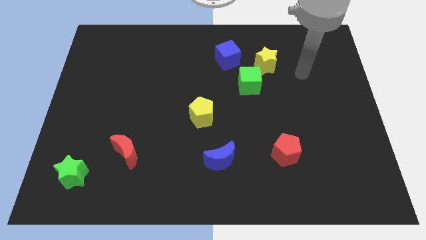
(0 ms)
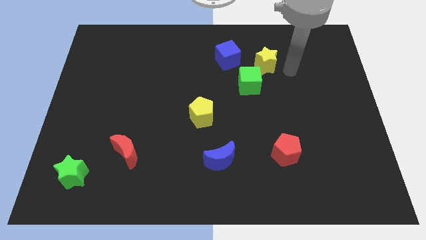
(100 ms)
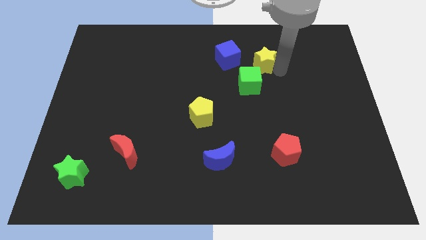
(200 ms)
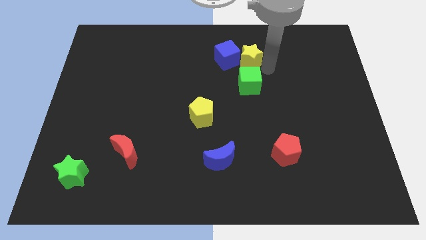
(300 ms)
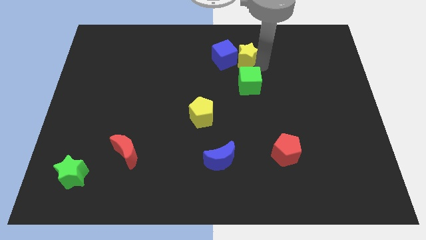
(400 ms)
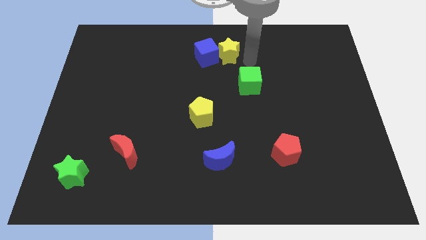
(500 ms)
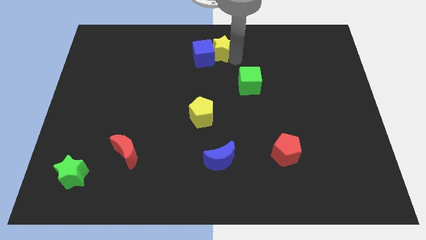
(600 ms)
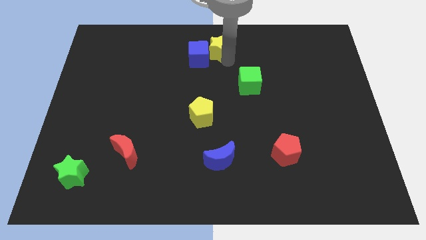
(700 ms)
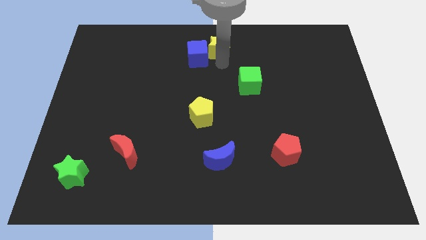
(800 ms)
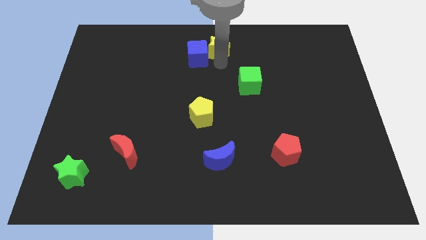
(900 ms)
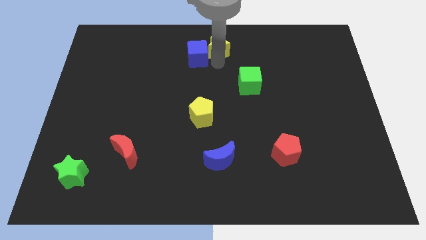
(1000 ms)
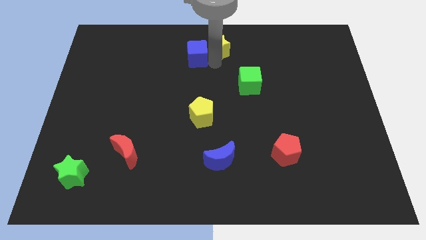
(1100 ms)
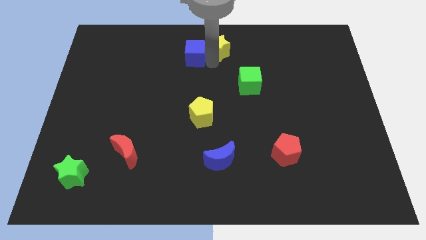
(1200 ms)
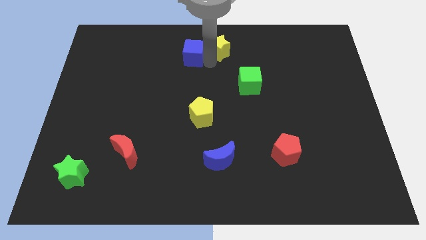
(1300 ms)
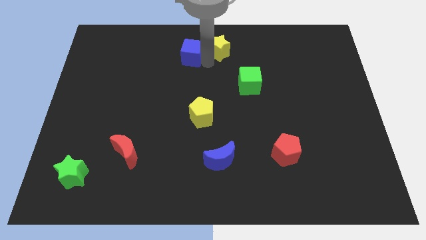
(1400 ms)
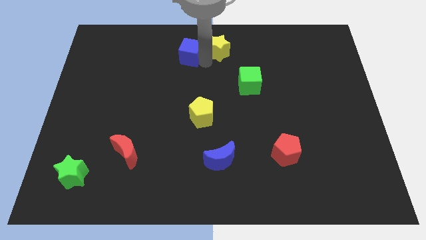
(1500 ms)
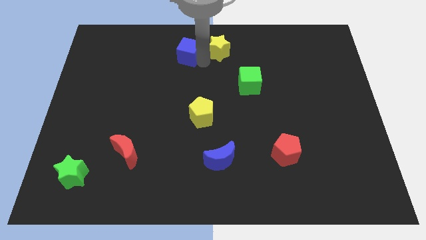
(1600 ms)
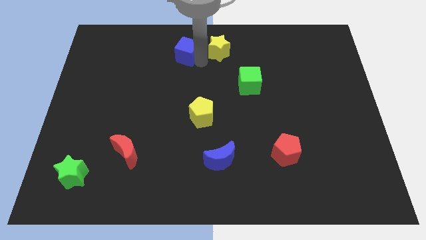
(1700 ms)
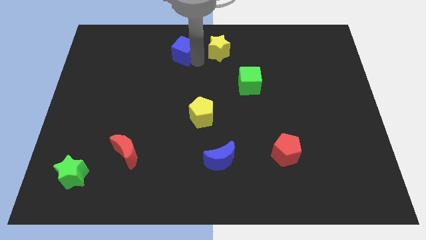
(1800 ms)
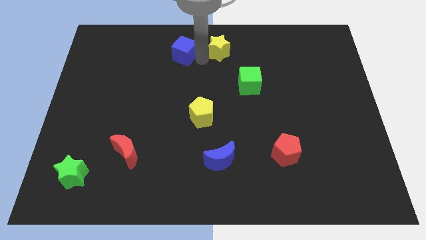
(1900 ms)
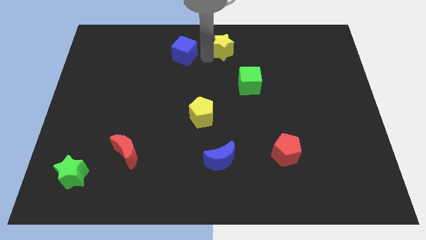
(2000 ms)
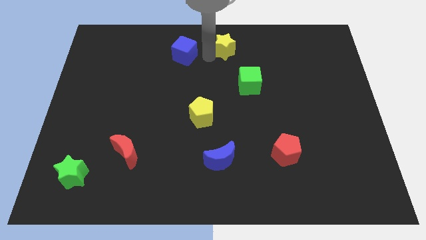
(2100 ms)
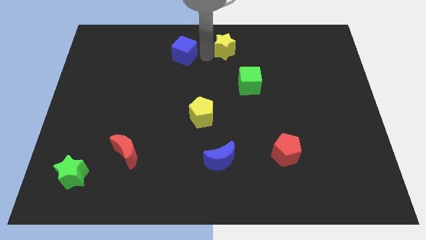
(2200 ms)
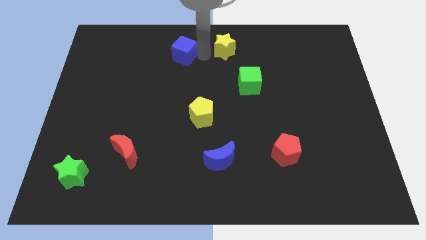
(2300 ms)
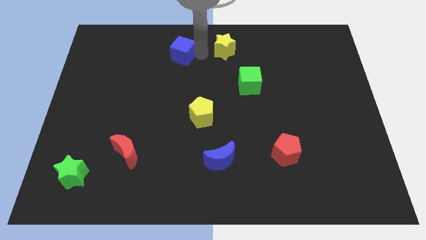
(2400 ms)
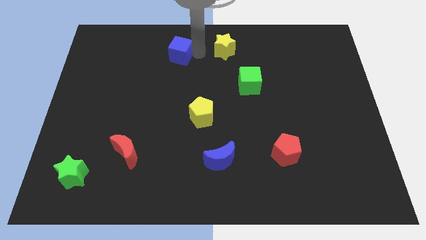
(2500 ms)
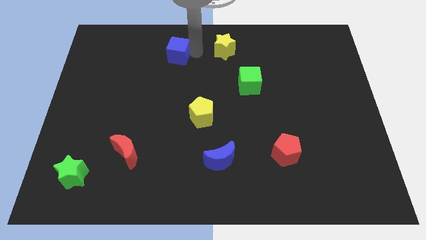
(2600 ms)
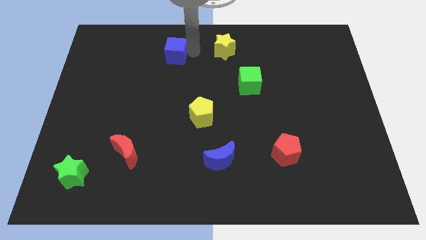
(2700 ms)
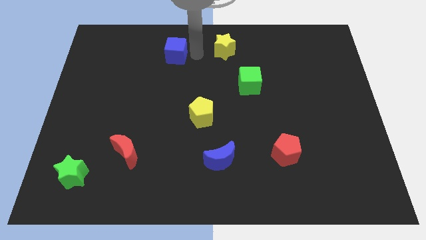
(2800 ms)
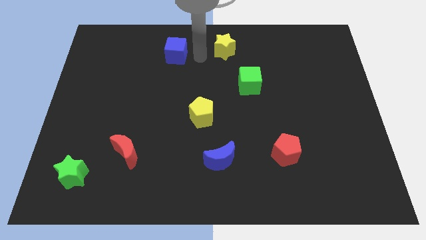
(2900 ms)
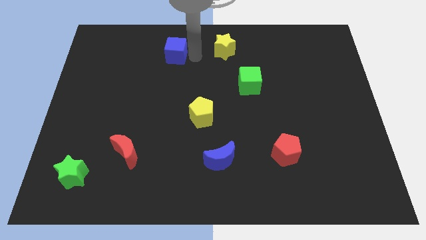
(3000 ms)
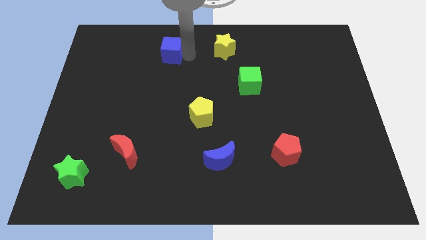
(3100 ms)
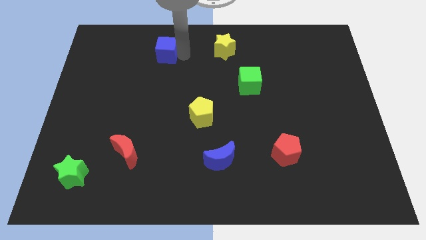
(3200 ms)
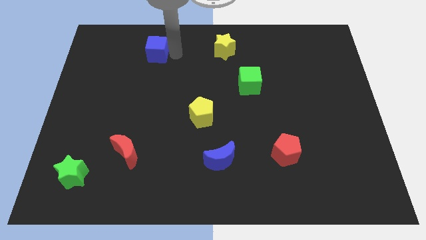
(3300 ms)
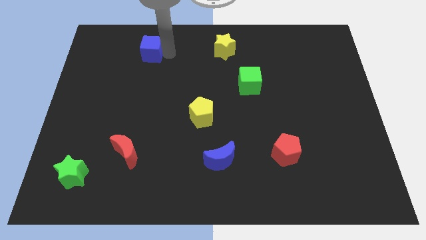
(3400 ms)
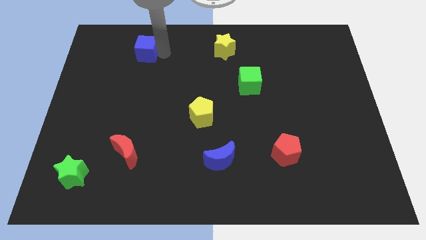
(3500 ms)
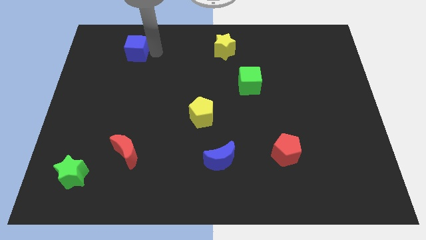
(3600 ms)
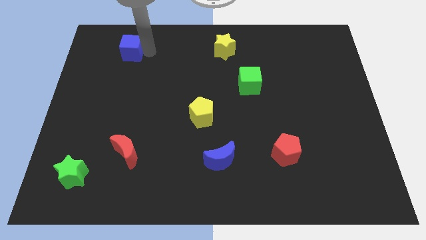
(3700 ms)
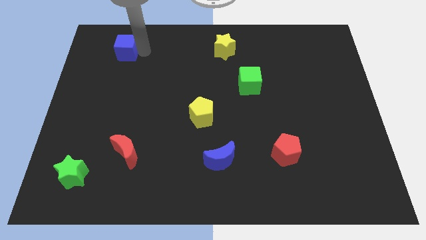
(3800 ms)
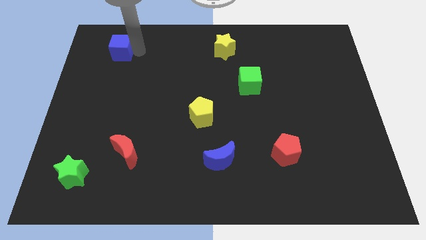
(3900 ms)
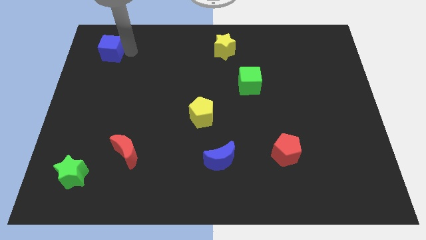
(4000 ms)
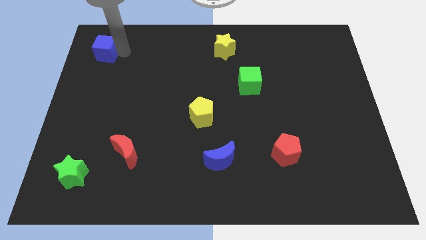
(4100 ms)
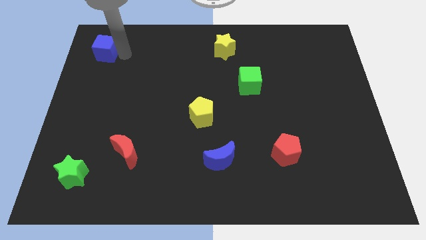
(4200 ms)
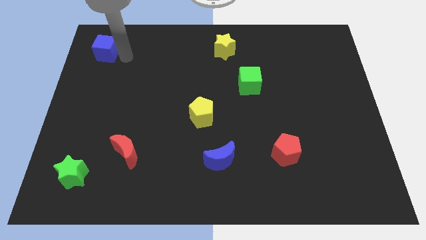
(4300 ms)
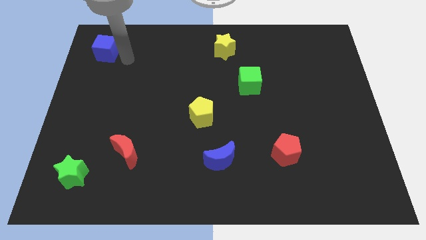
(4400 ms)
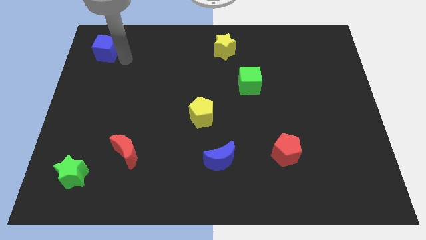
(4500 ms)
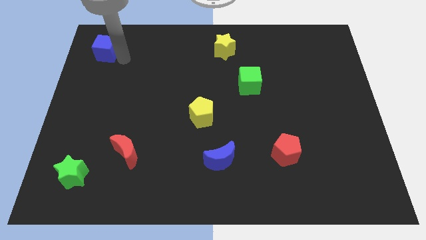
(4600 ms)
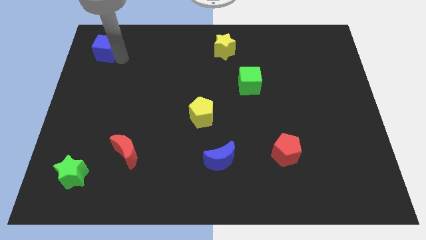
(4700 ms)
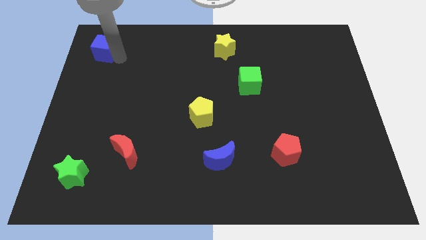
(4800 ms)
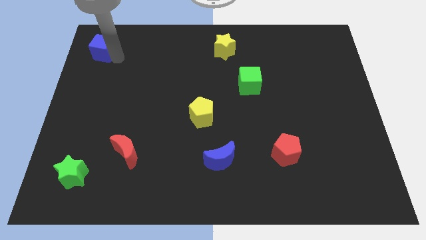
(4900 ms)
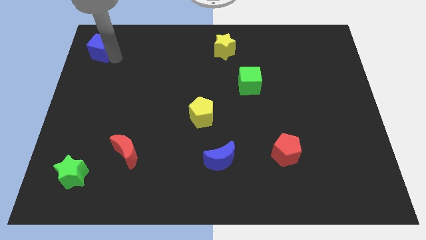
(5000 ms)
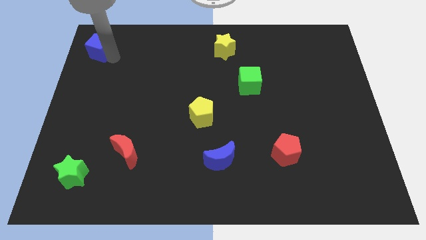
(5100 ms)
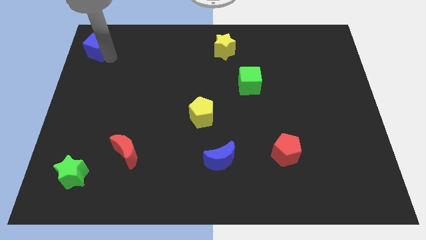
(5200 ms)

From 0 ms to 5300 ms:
put the blue cube to the top left

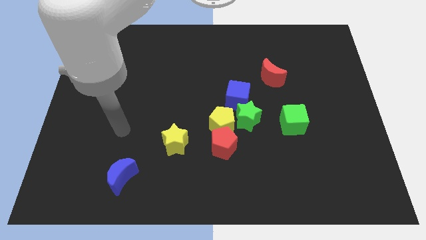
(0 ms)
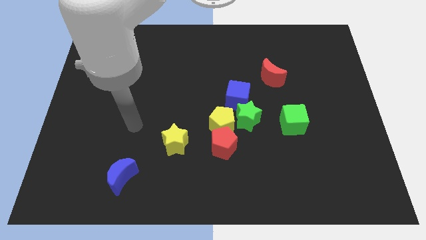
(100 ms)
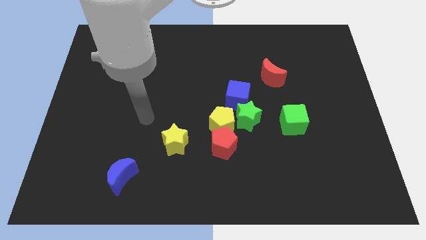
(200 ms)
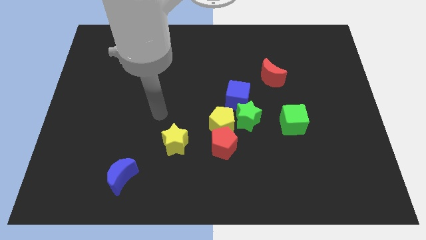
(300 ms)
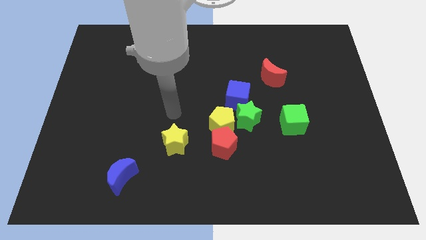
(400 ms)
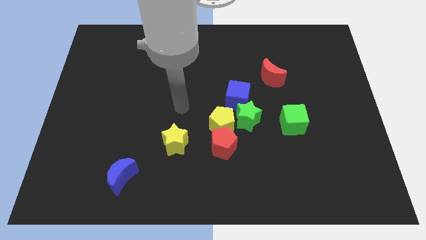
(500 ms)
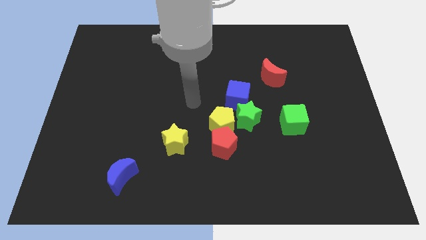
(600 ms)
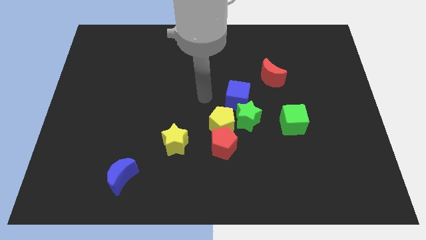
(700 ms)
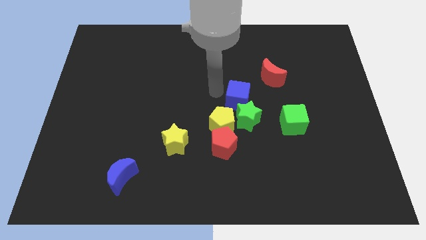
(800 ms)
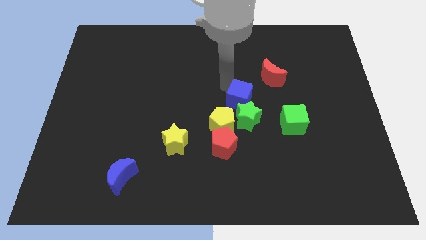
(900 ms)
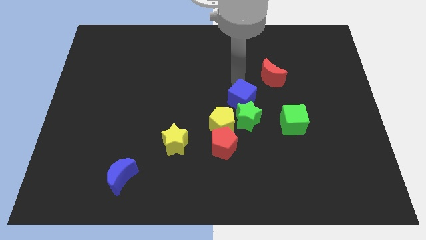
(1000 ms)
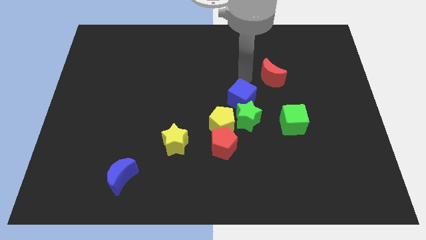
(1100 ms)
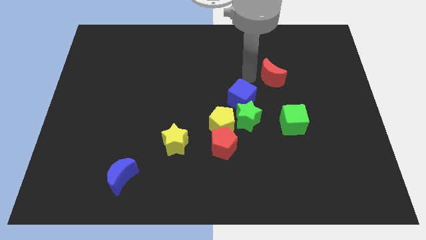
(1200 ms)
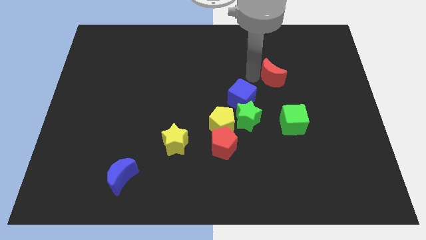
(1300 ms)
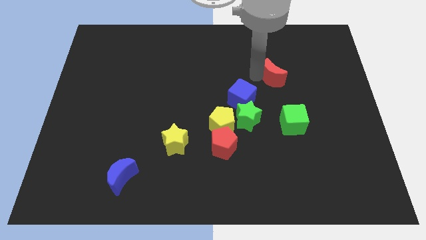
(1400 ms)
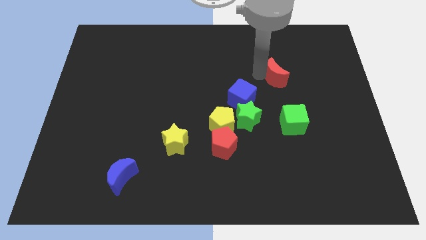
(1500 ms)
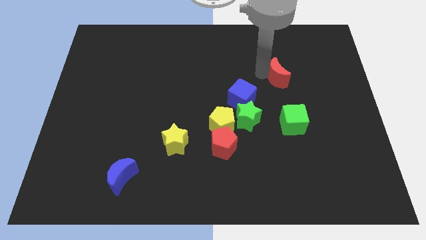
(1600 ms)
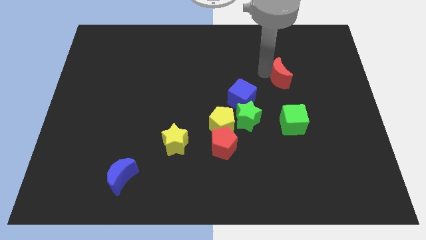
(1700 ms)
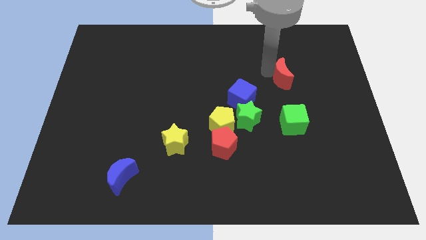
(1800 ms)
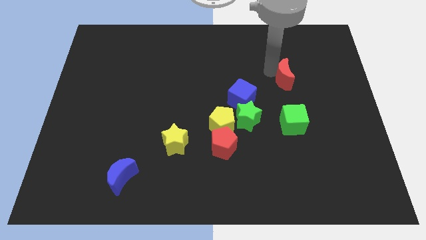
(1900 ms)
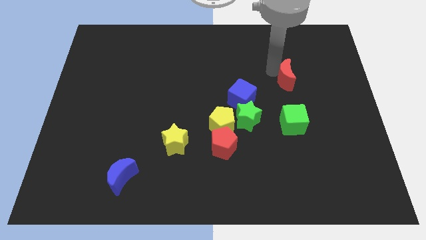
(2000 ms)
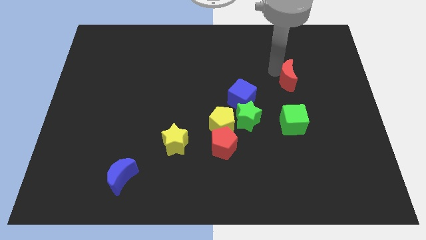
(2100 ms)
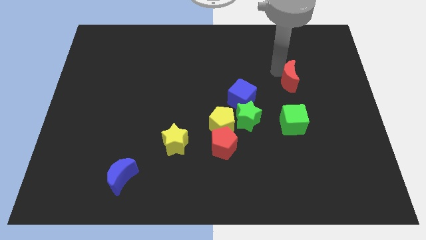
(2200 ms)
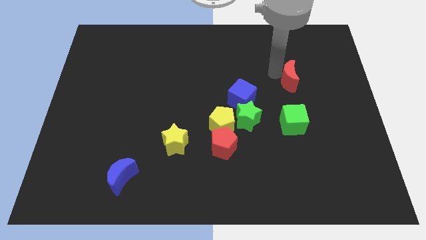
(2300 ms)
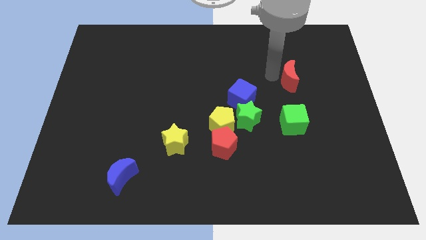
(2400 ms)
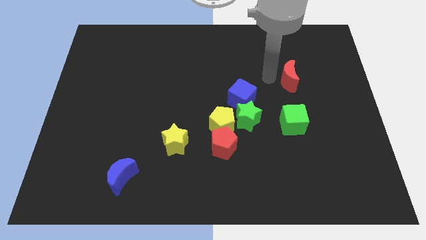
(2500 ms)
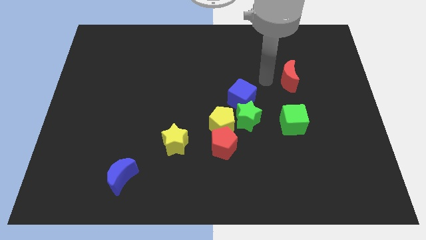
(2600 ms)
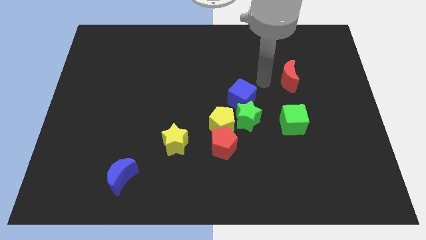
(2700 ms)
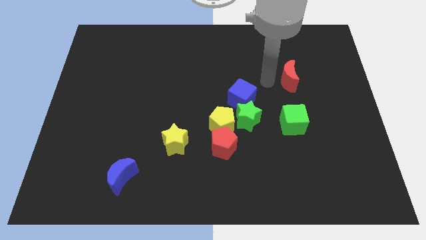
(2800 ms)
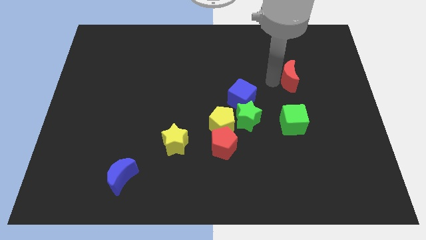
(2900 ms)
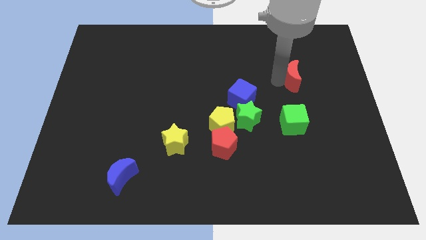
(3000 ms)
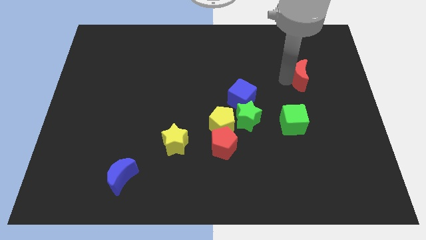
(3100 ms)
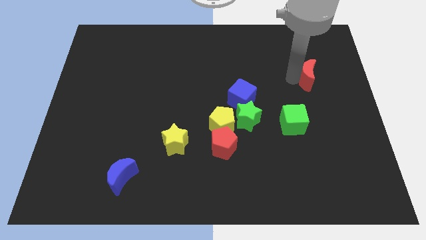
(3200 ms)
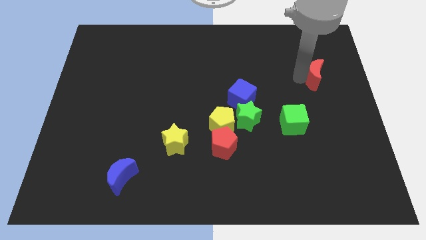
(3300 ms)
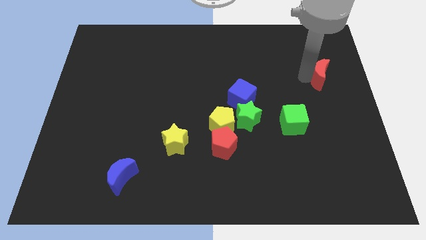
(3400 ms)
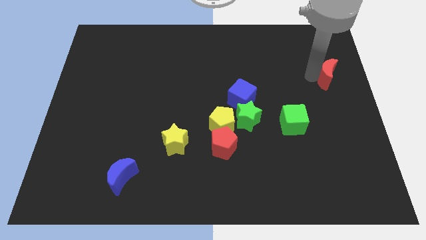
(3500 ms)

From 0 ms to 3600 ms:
slide the red moon to the right side of the board
